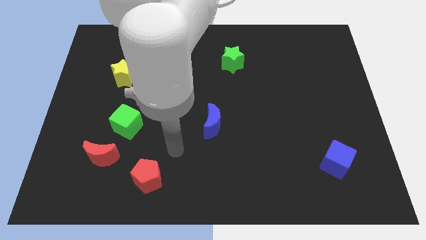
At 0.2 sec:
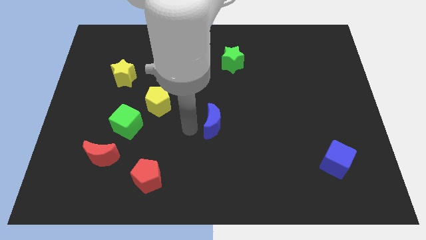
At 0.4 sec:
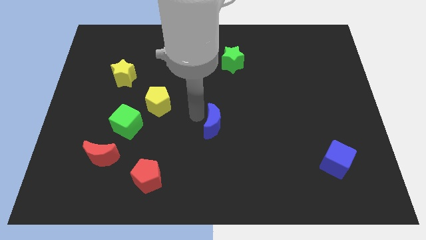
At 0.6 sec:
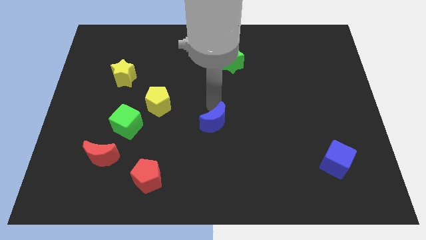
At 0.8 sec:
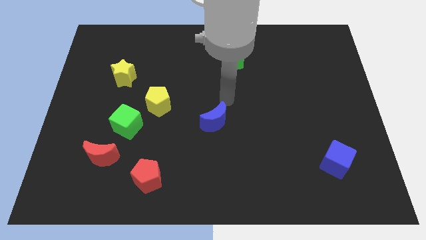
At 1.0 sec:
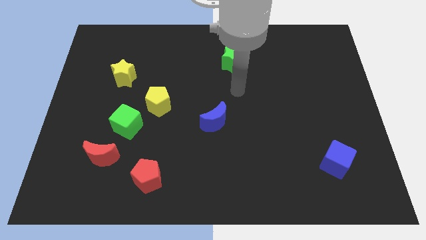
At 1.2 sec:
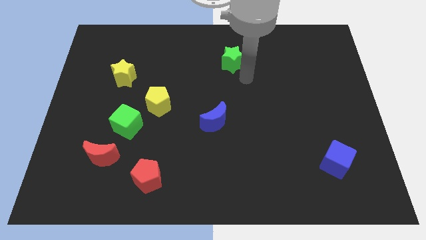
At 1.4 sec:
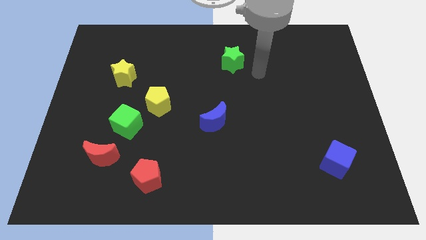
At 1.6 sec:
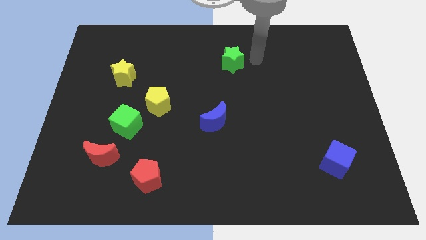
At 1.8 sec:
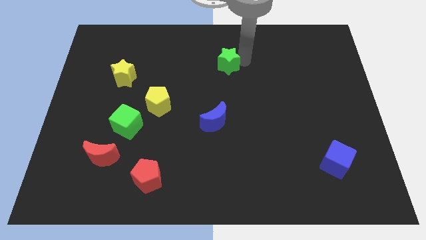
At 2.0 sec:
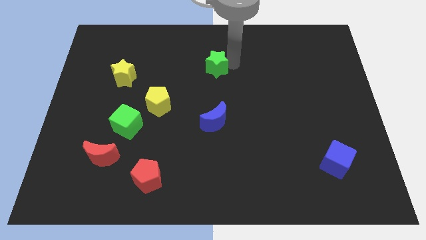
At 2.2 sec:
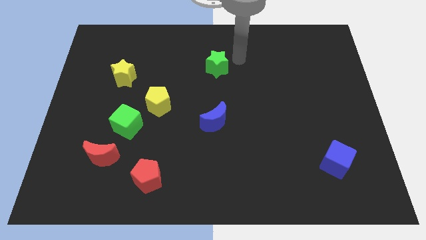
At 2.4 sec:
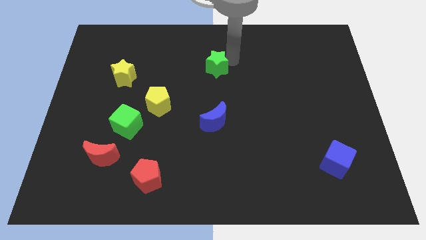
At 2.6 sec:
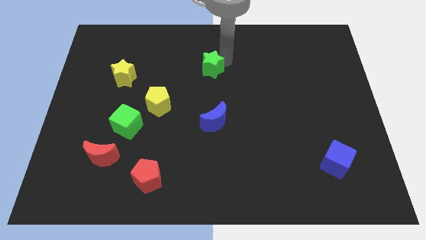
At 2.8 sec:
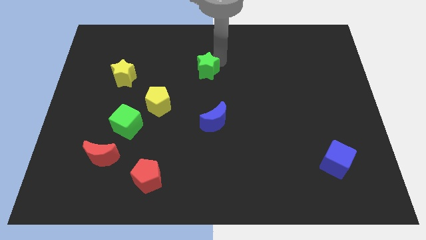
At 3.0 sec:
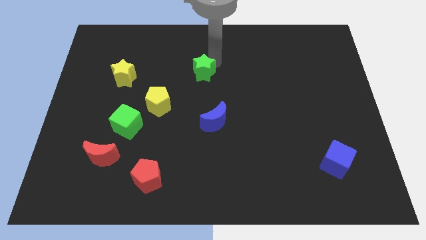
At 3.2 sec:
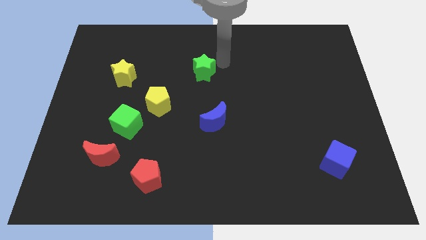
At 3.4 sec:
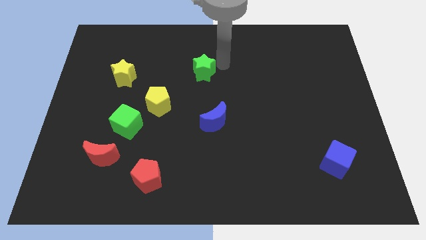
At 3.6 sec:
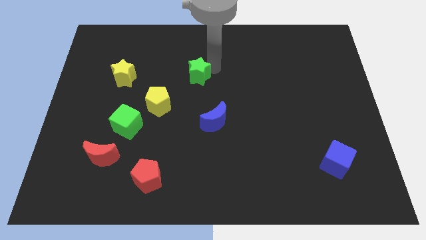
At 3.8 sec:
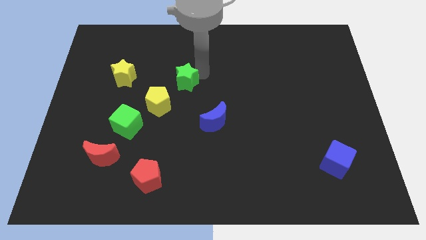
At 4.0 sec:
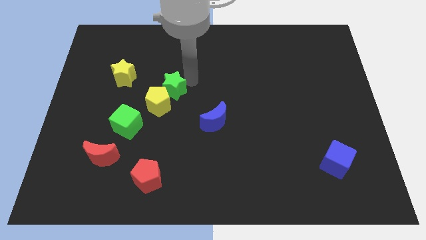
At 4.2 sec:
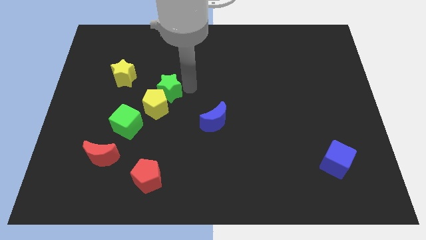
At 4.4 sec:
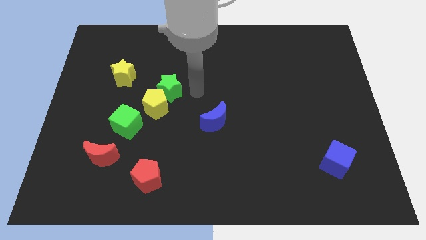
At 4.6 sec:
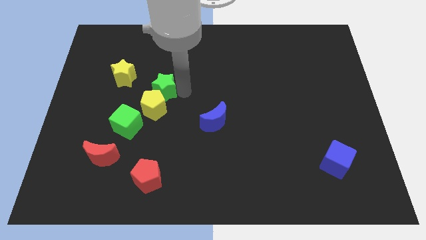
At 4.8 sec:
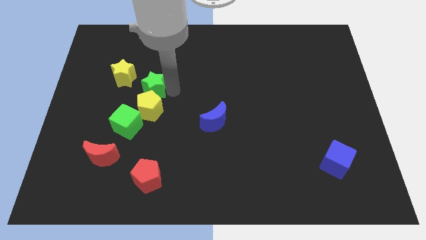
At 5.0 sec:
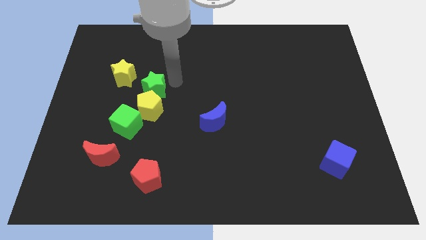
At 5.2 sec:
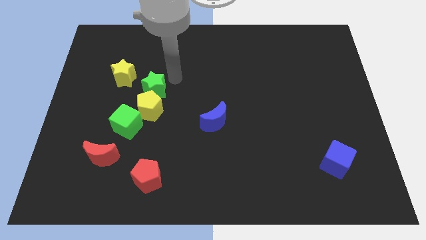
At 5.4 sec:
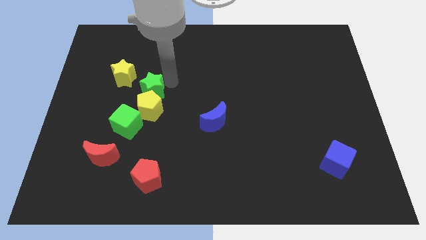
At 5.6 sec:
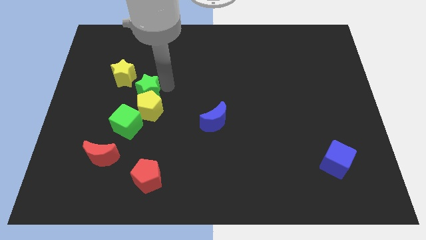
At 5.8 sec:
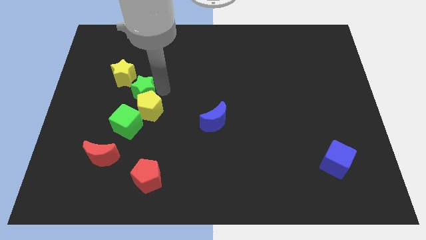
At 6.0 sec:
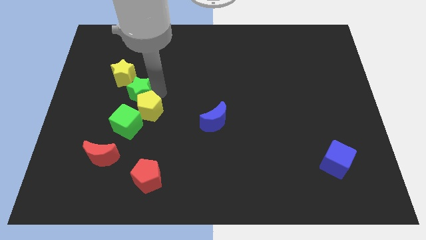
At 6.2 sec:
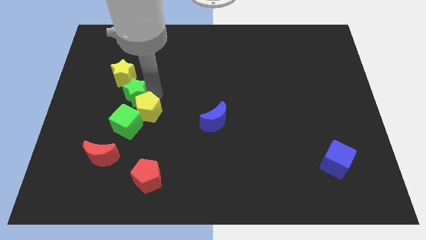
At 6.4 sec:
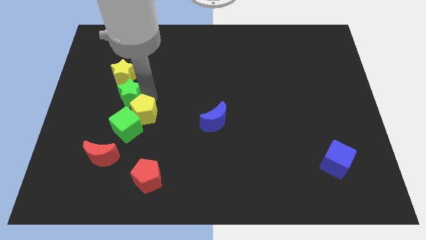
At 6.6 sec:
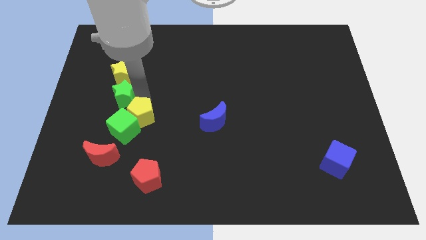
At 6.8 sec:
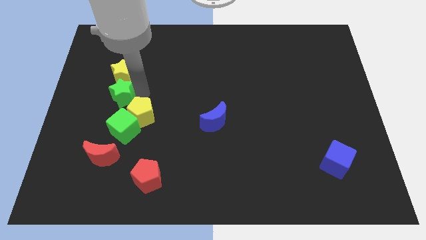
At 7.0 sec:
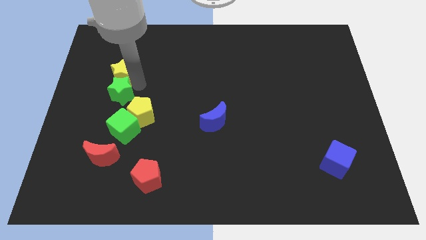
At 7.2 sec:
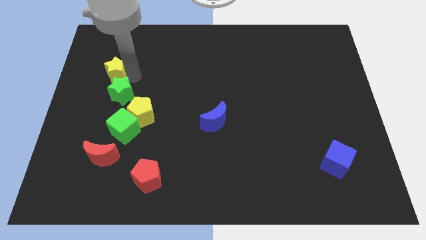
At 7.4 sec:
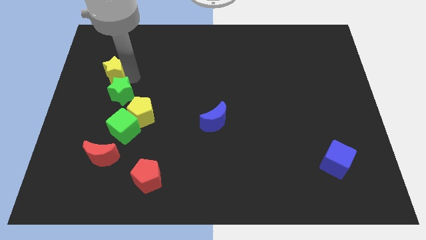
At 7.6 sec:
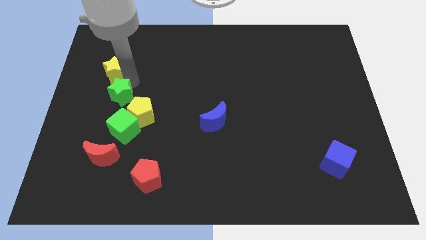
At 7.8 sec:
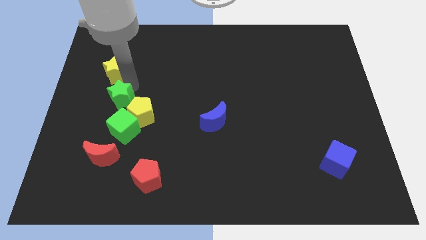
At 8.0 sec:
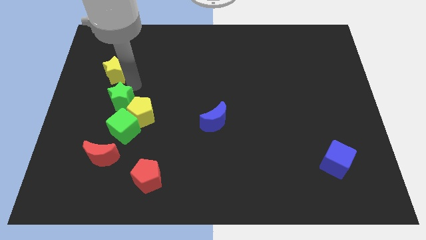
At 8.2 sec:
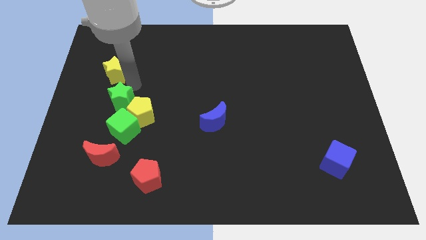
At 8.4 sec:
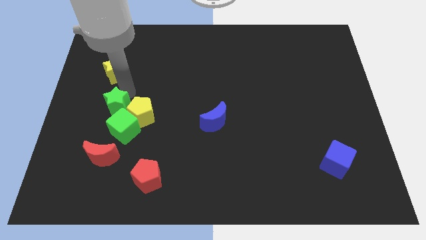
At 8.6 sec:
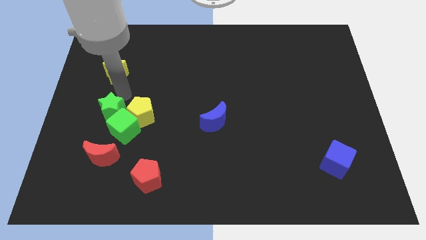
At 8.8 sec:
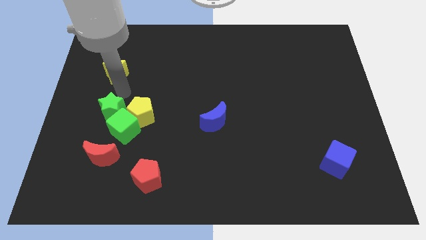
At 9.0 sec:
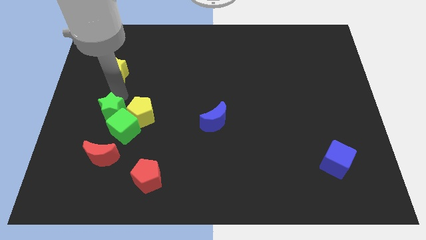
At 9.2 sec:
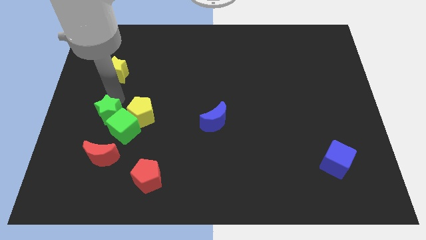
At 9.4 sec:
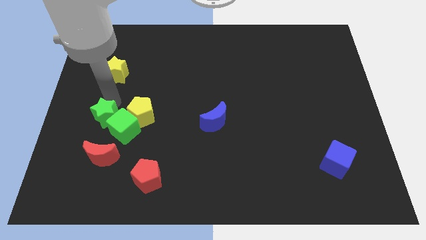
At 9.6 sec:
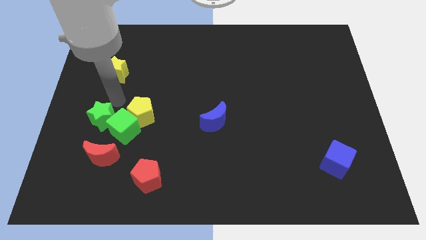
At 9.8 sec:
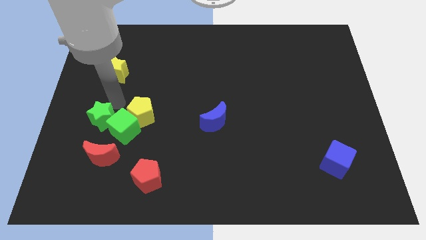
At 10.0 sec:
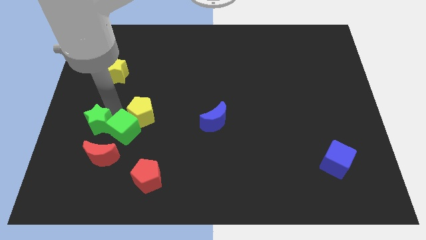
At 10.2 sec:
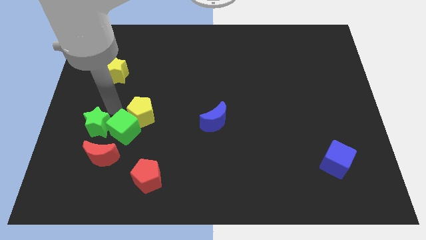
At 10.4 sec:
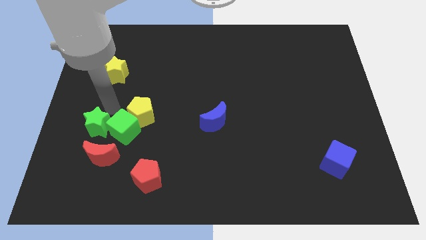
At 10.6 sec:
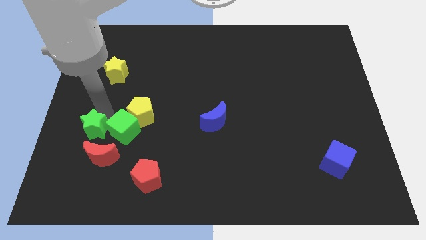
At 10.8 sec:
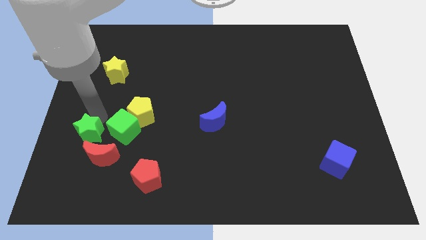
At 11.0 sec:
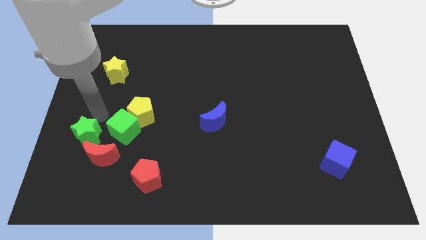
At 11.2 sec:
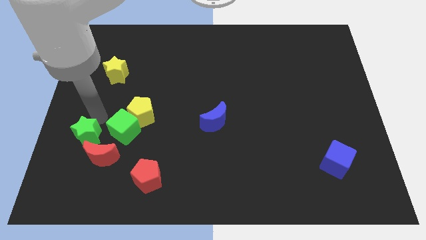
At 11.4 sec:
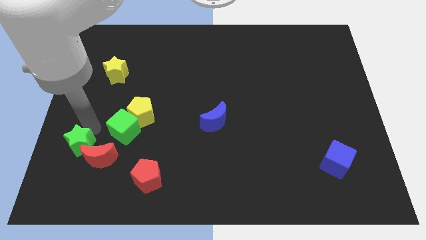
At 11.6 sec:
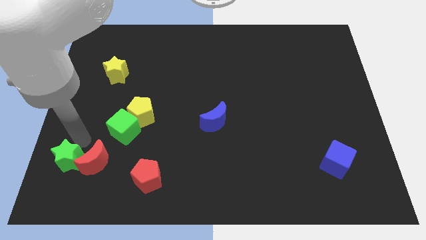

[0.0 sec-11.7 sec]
put the green star to the bottom left side of the red moon

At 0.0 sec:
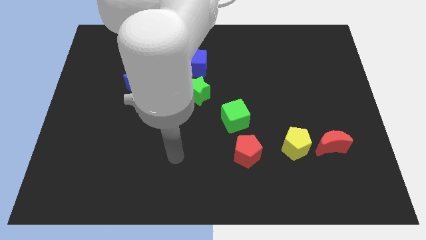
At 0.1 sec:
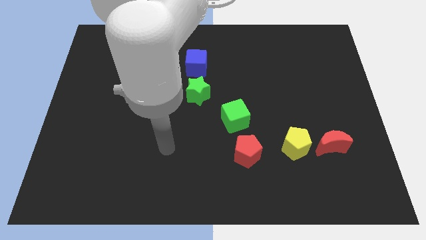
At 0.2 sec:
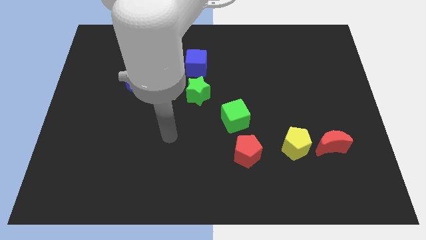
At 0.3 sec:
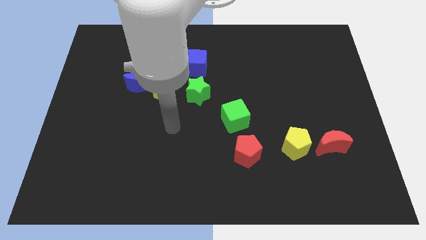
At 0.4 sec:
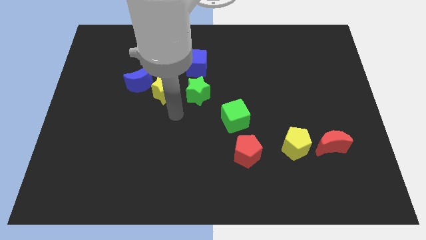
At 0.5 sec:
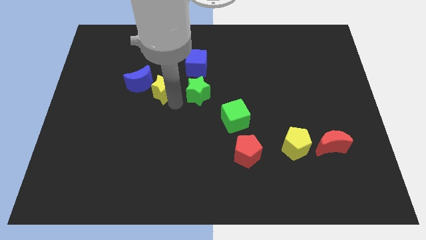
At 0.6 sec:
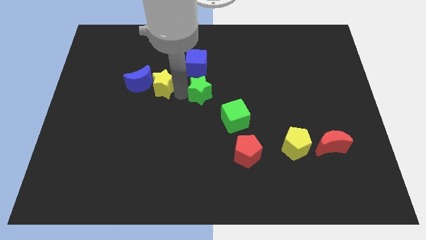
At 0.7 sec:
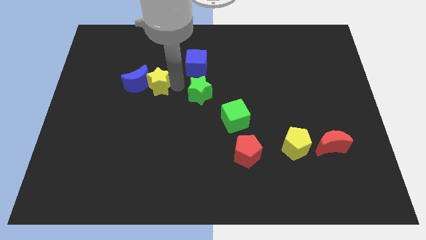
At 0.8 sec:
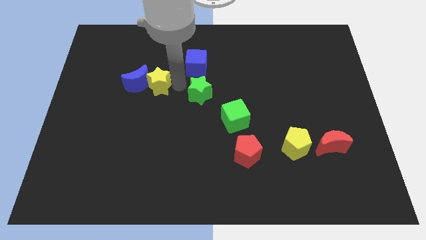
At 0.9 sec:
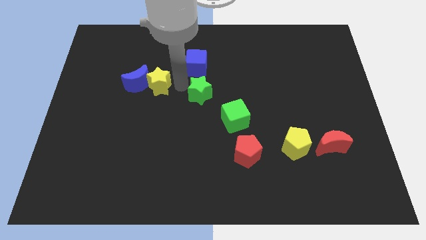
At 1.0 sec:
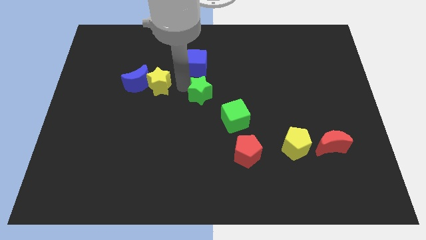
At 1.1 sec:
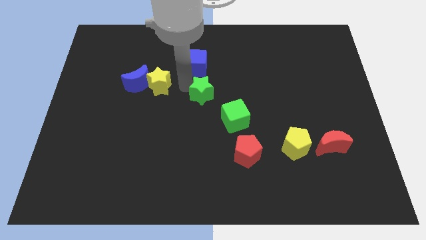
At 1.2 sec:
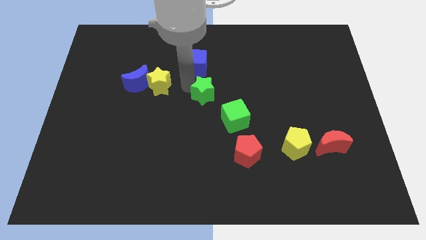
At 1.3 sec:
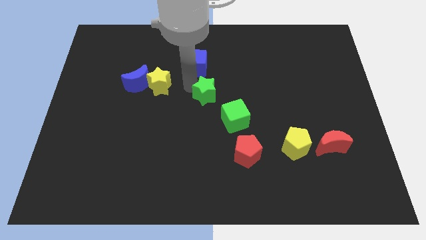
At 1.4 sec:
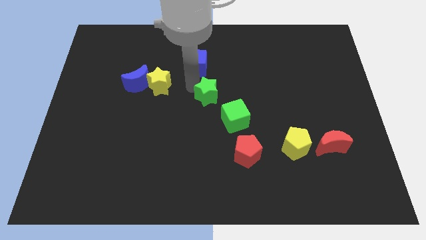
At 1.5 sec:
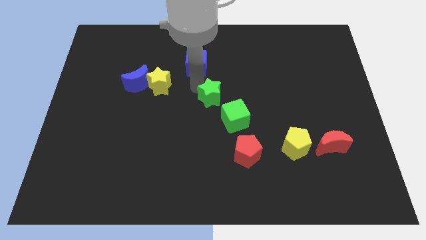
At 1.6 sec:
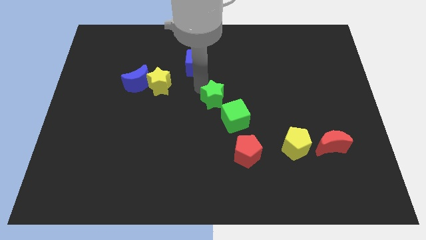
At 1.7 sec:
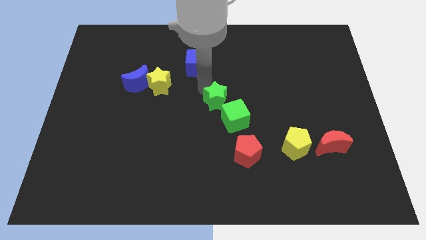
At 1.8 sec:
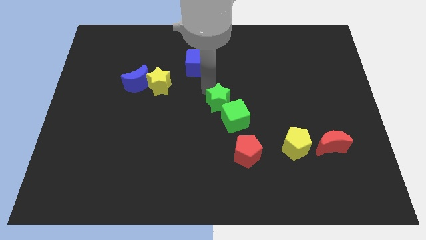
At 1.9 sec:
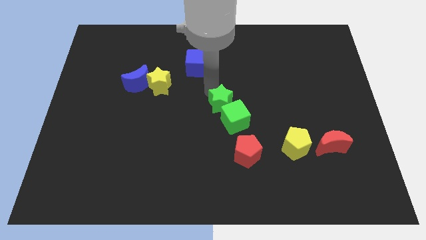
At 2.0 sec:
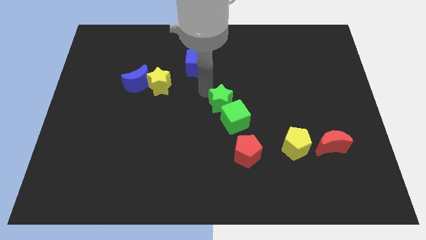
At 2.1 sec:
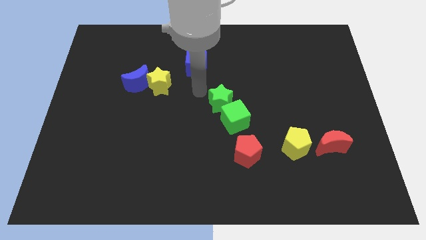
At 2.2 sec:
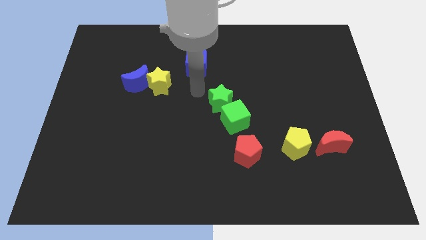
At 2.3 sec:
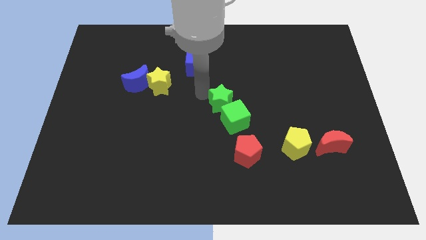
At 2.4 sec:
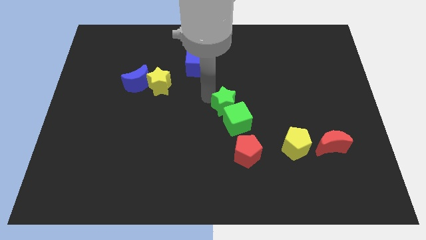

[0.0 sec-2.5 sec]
slide the green star to the top side of the red pentagon
